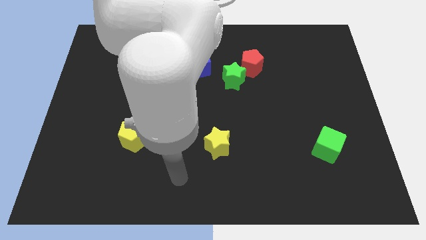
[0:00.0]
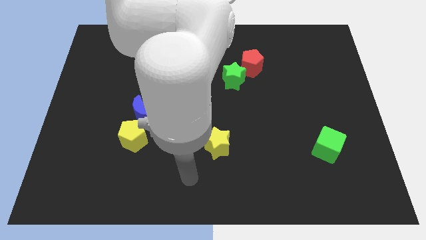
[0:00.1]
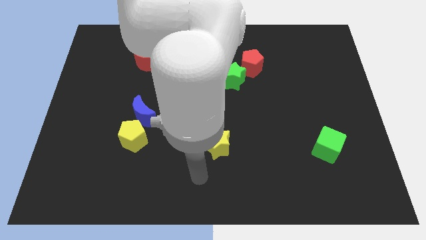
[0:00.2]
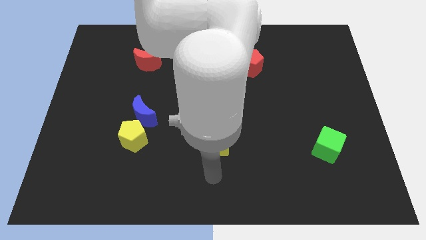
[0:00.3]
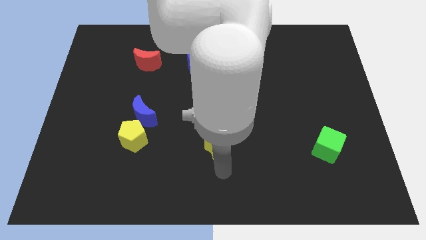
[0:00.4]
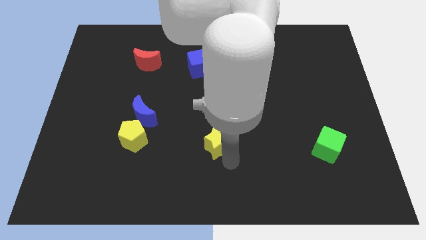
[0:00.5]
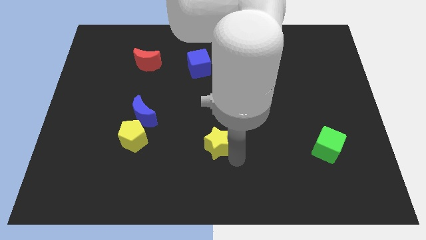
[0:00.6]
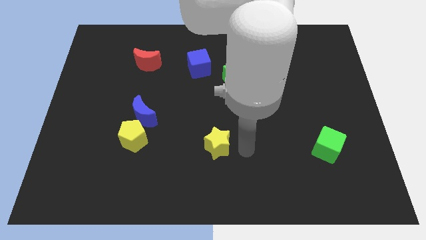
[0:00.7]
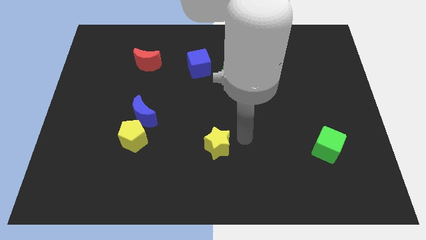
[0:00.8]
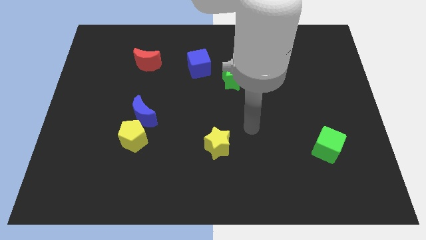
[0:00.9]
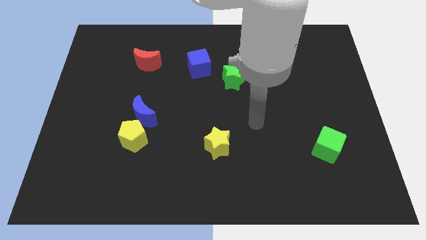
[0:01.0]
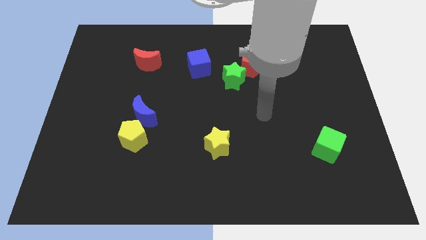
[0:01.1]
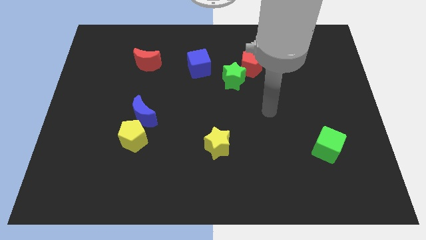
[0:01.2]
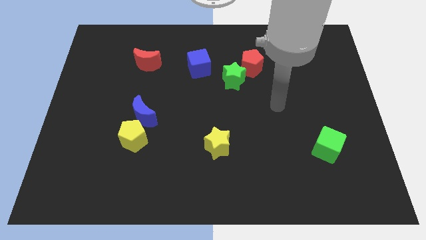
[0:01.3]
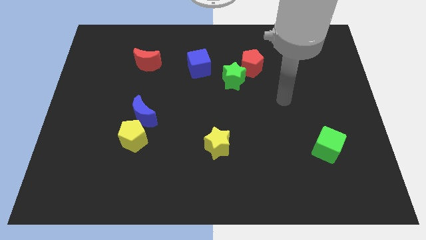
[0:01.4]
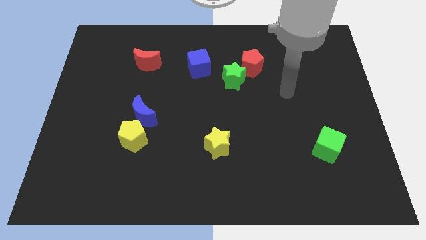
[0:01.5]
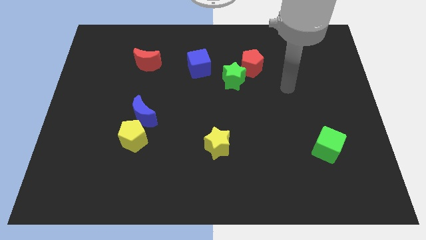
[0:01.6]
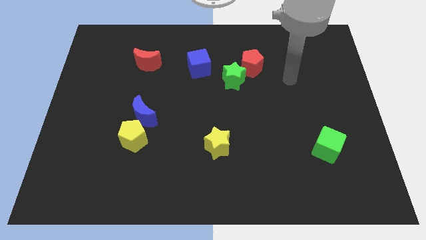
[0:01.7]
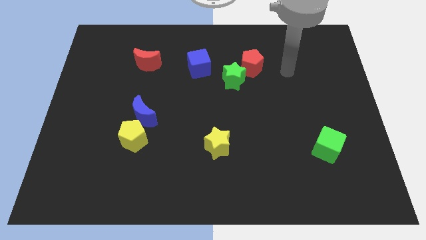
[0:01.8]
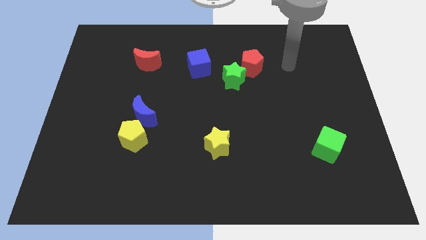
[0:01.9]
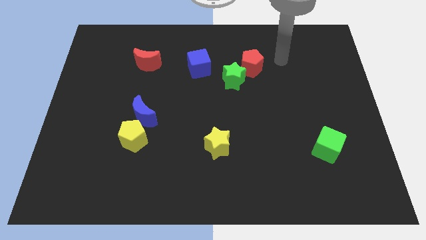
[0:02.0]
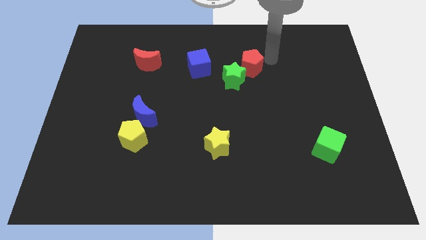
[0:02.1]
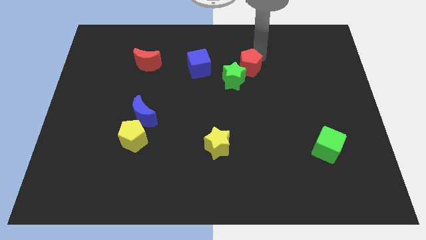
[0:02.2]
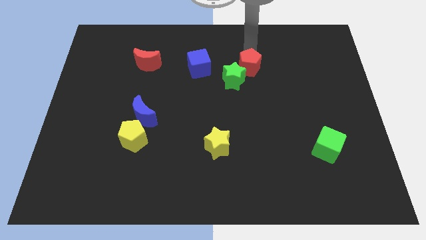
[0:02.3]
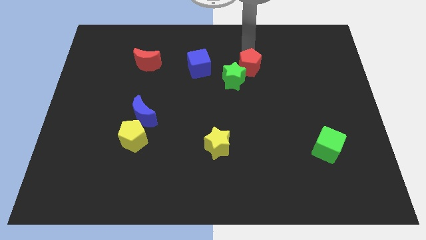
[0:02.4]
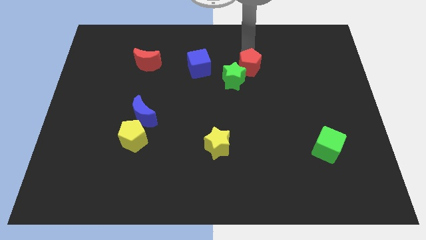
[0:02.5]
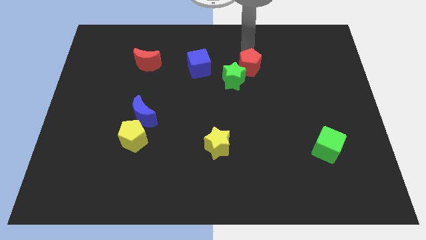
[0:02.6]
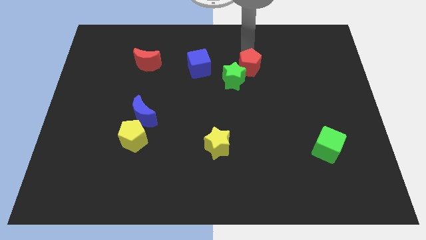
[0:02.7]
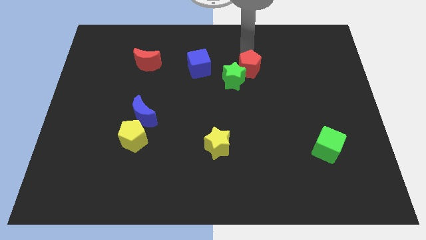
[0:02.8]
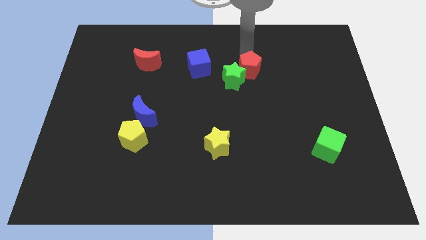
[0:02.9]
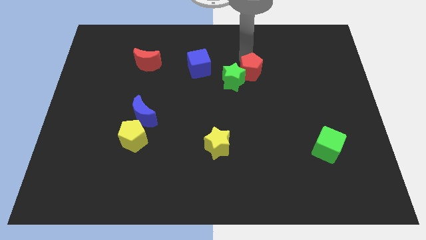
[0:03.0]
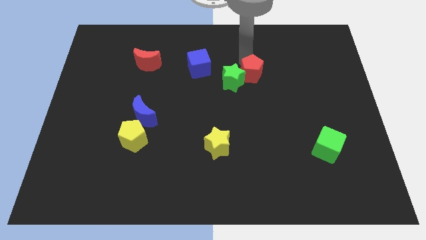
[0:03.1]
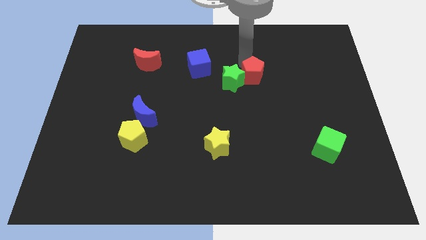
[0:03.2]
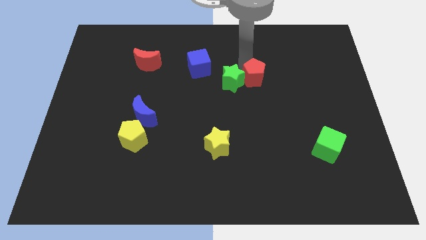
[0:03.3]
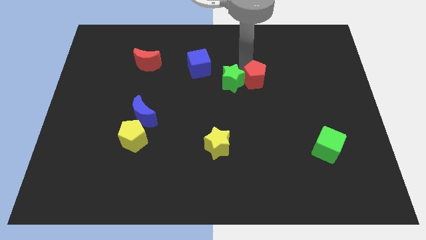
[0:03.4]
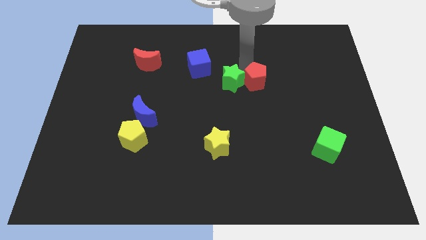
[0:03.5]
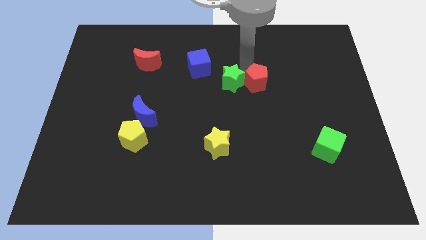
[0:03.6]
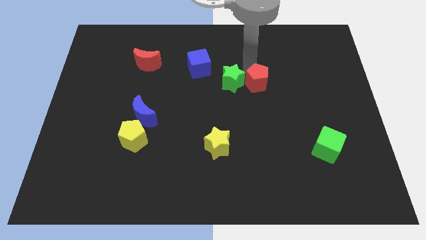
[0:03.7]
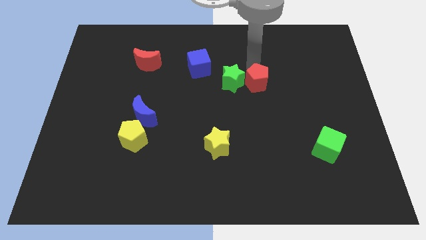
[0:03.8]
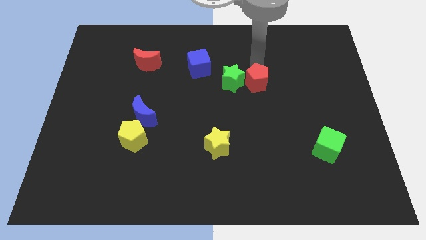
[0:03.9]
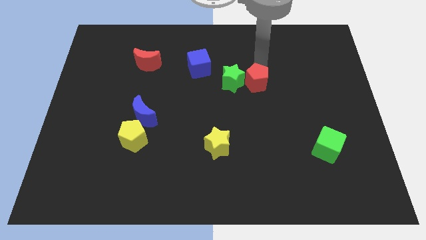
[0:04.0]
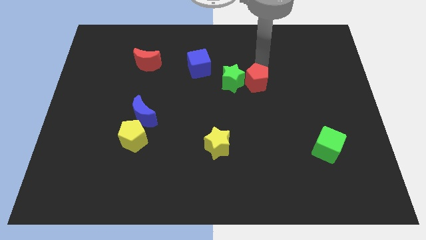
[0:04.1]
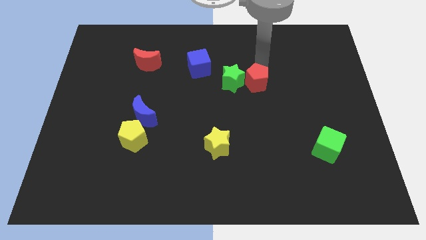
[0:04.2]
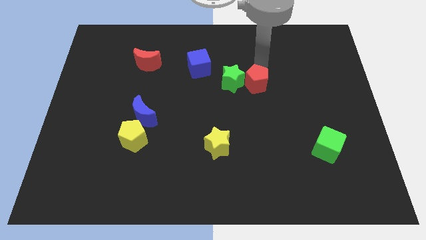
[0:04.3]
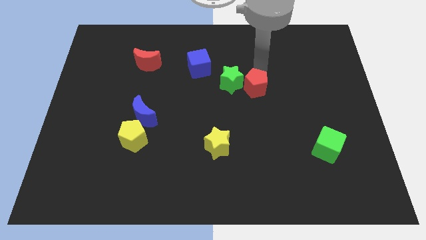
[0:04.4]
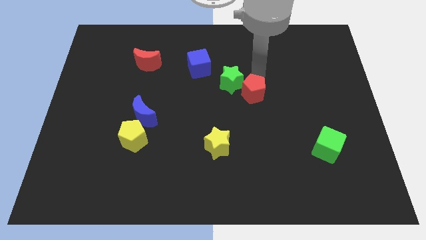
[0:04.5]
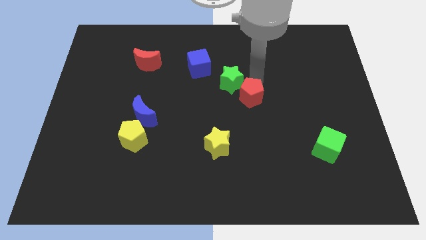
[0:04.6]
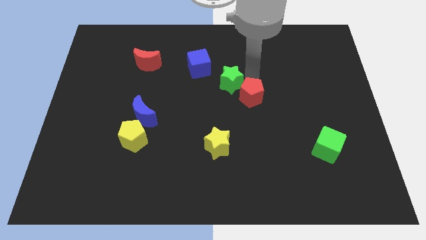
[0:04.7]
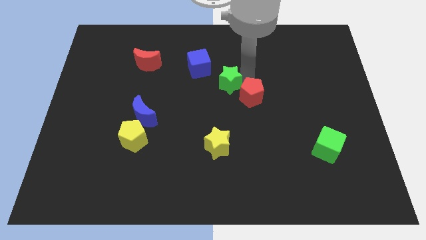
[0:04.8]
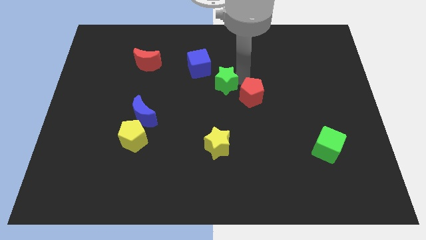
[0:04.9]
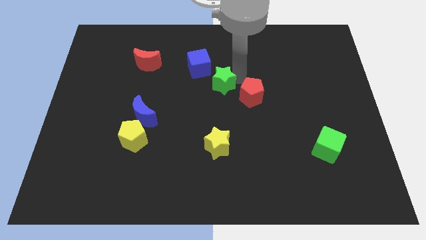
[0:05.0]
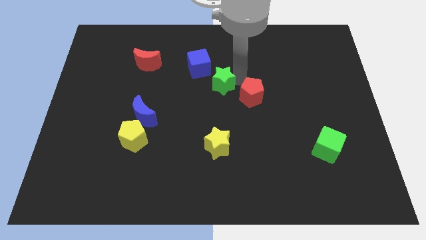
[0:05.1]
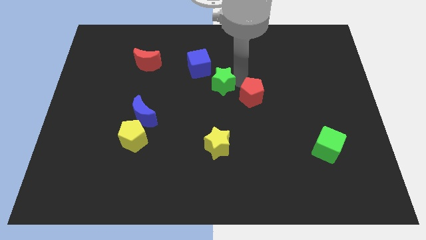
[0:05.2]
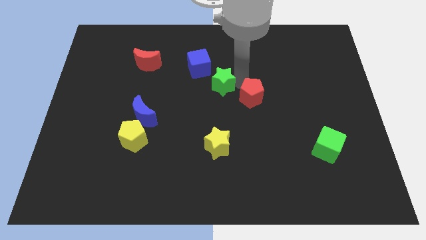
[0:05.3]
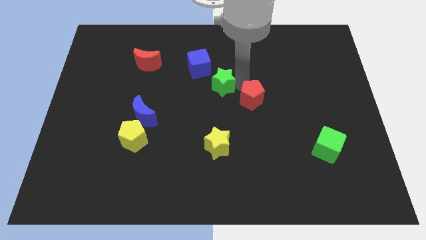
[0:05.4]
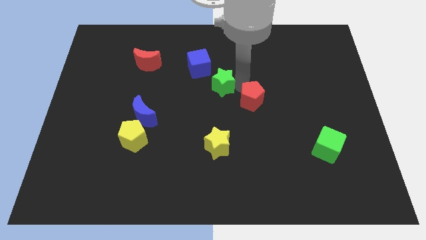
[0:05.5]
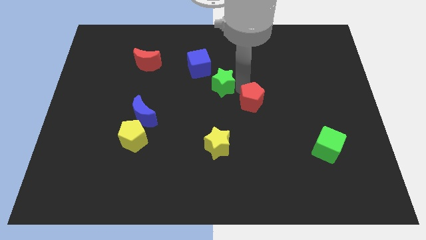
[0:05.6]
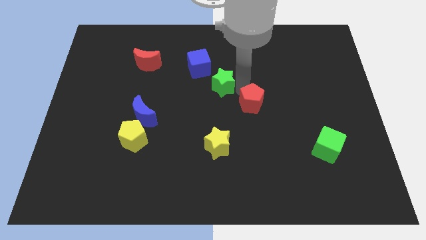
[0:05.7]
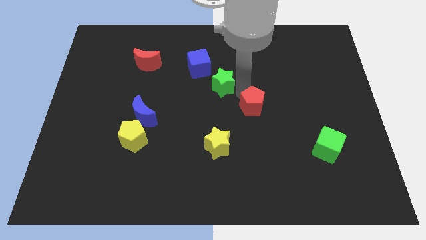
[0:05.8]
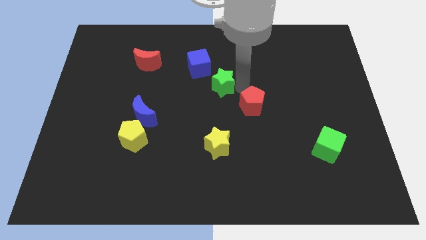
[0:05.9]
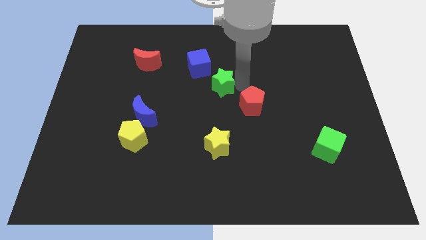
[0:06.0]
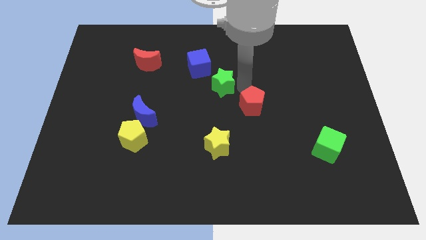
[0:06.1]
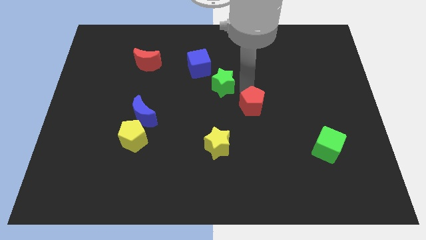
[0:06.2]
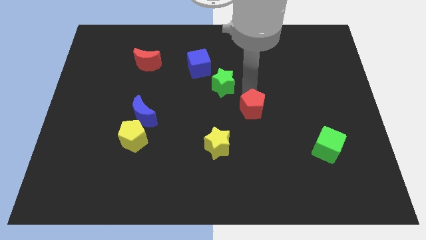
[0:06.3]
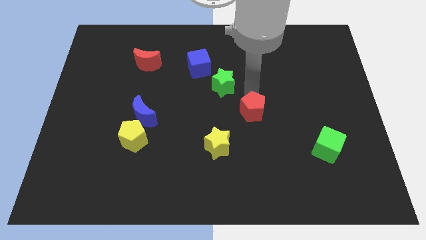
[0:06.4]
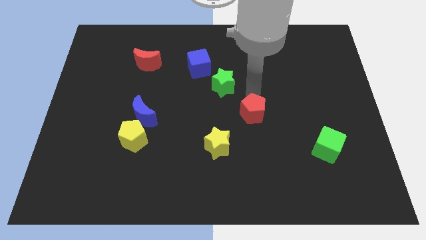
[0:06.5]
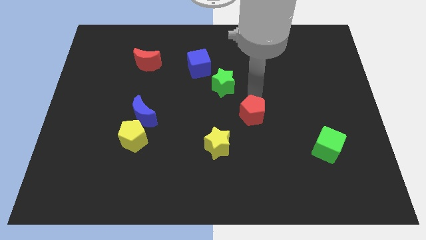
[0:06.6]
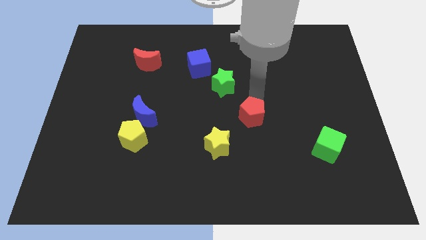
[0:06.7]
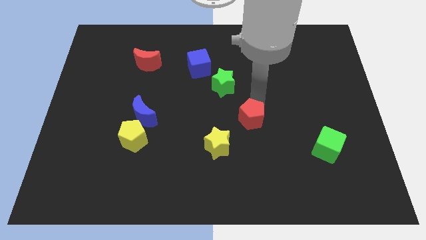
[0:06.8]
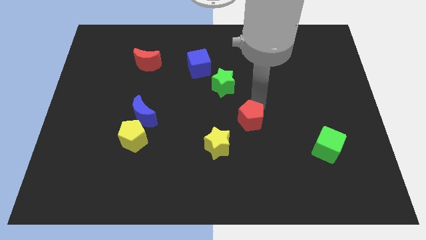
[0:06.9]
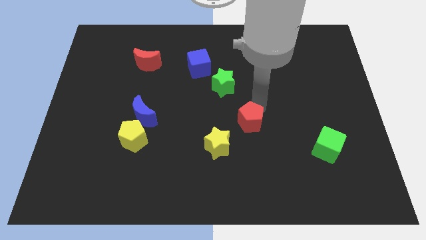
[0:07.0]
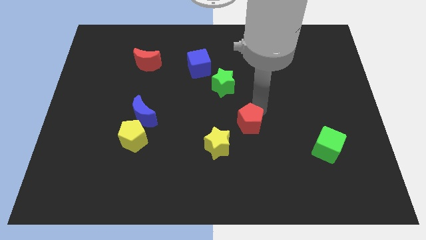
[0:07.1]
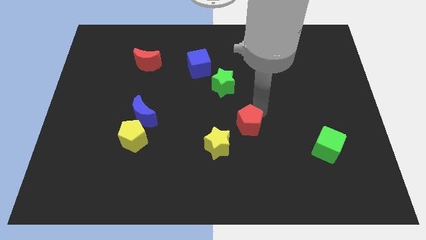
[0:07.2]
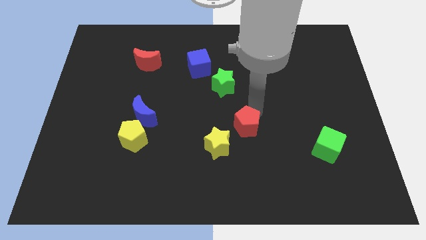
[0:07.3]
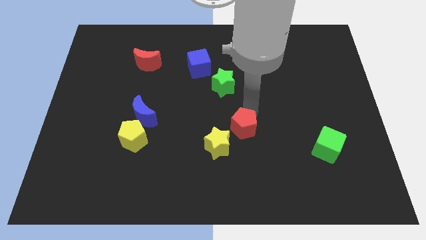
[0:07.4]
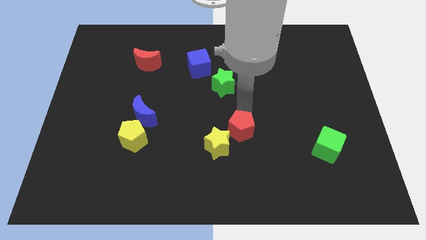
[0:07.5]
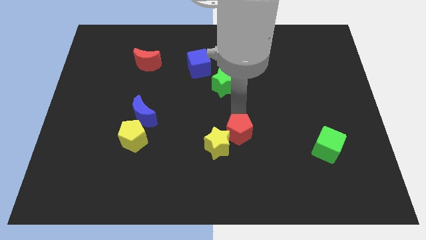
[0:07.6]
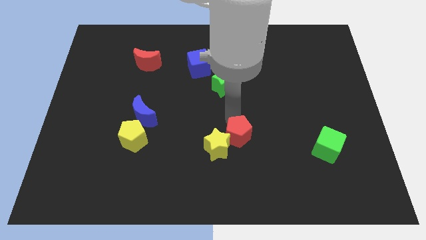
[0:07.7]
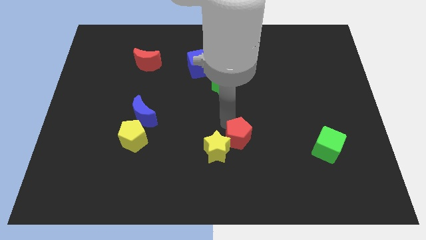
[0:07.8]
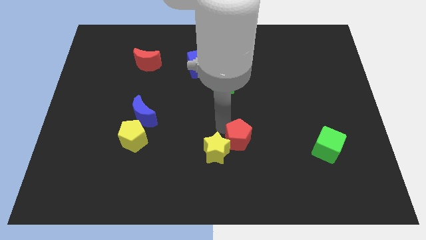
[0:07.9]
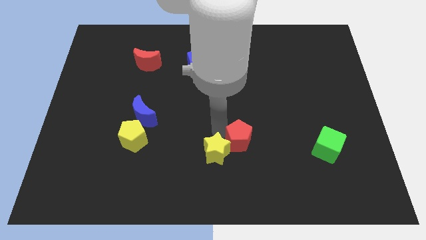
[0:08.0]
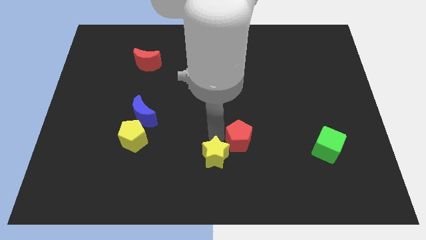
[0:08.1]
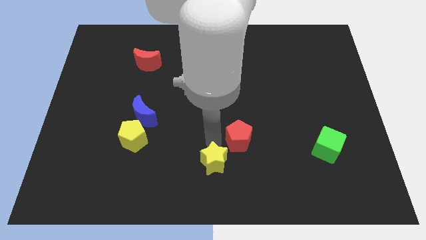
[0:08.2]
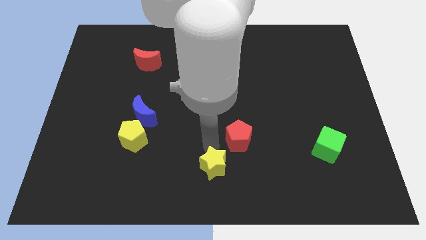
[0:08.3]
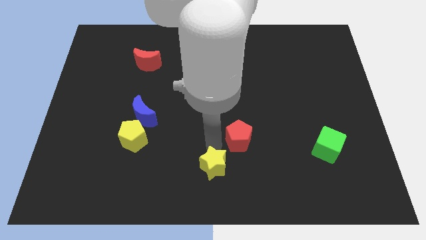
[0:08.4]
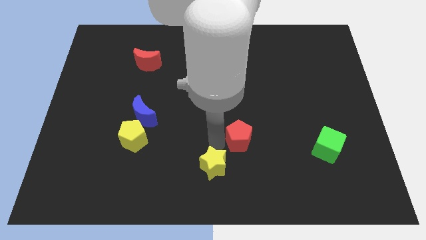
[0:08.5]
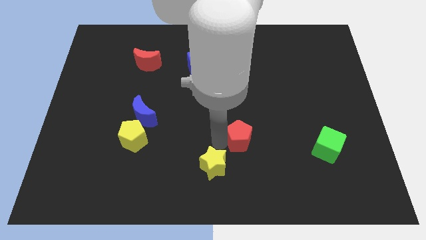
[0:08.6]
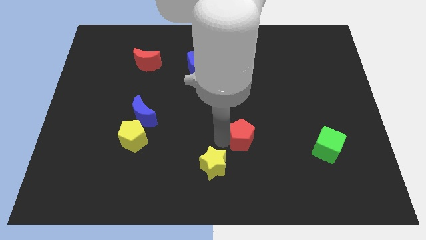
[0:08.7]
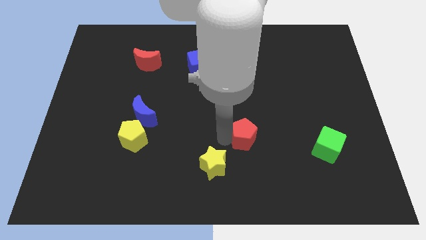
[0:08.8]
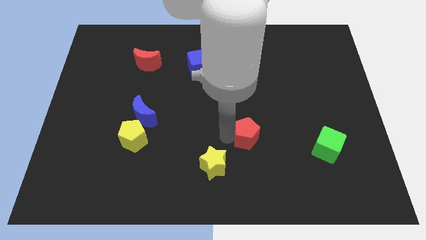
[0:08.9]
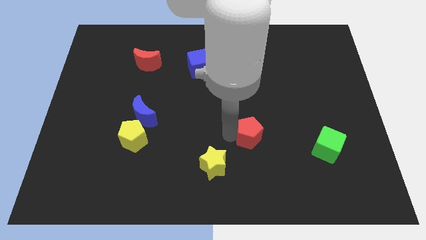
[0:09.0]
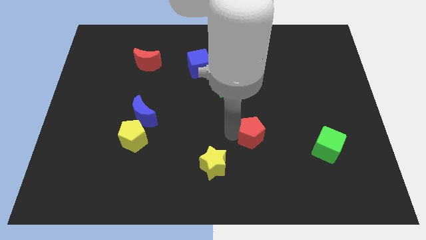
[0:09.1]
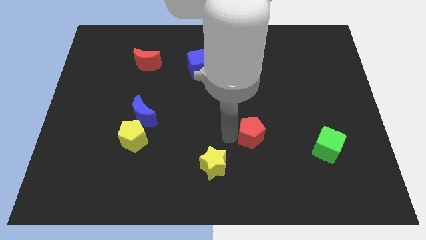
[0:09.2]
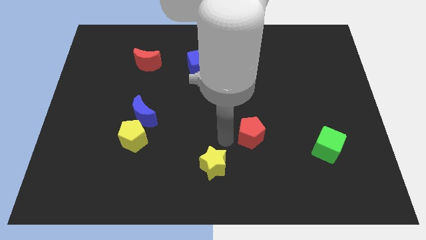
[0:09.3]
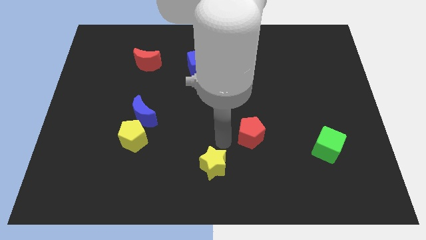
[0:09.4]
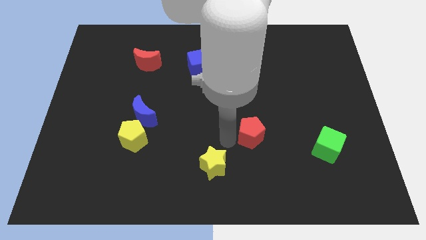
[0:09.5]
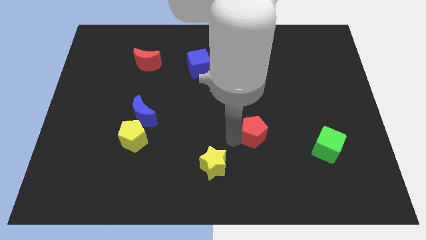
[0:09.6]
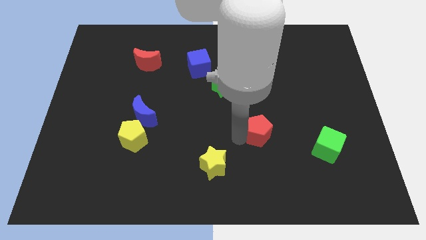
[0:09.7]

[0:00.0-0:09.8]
push the red pentagon just left of the green cube
